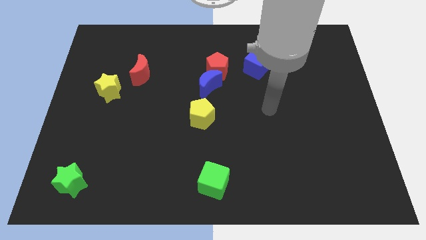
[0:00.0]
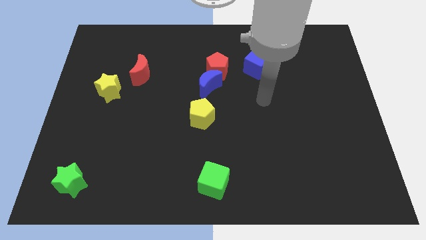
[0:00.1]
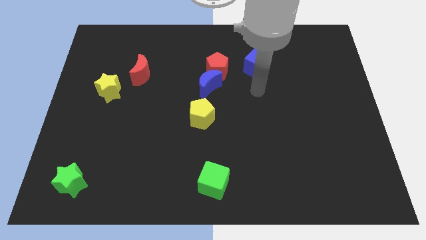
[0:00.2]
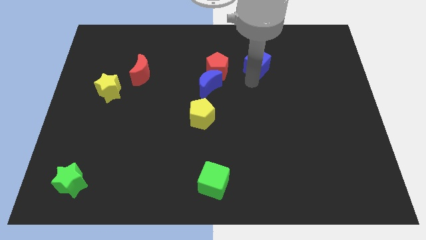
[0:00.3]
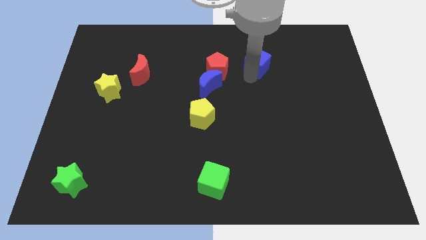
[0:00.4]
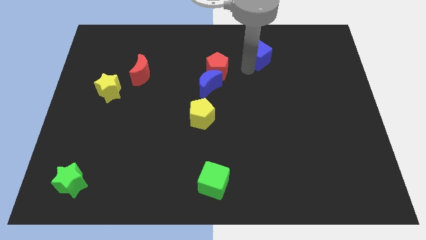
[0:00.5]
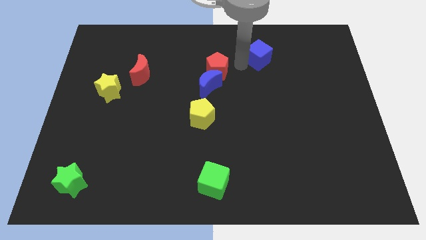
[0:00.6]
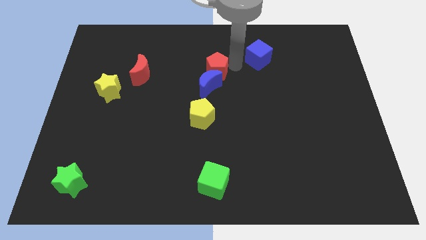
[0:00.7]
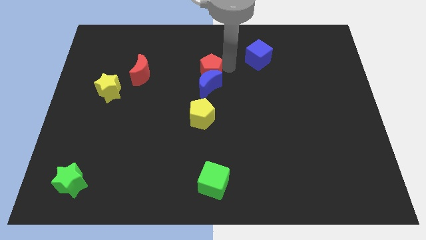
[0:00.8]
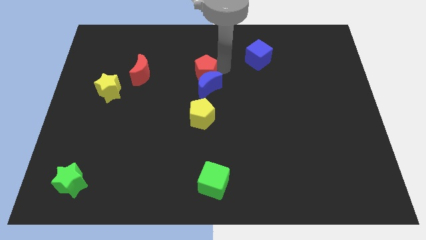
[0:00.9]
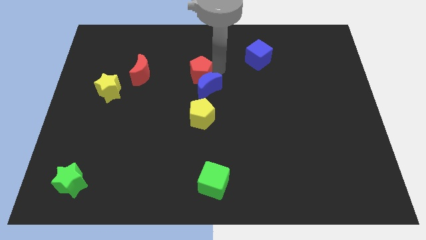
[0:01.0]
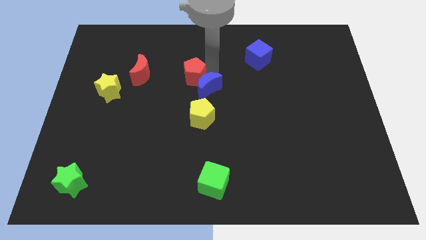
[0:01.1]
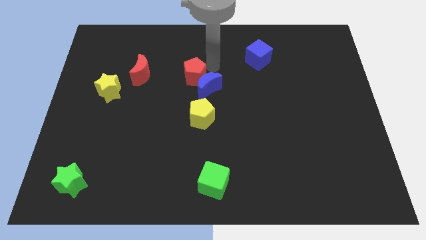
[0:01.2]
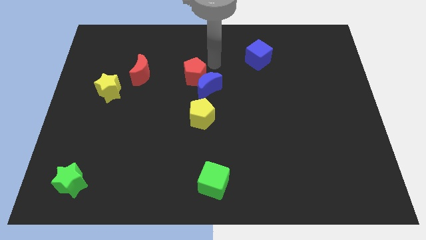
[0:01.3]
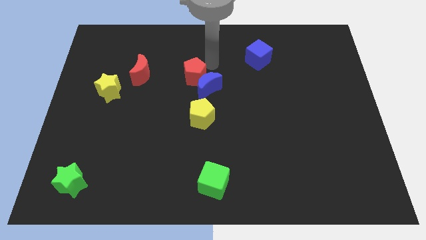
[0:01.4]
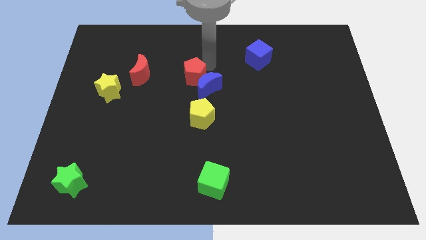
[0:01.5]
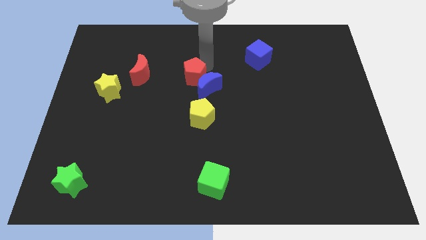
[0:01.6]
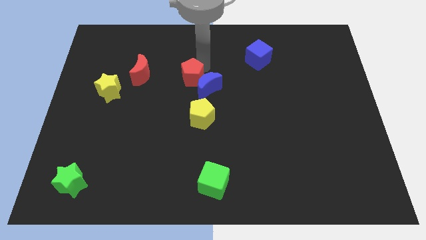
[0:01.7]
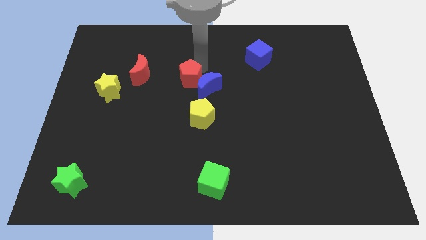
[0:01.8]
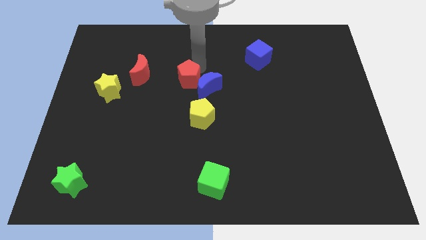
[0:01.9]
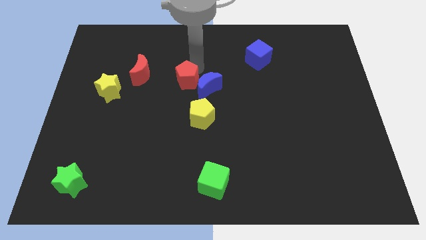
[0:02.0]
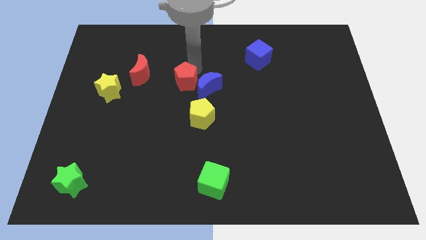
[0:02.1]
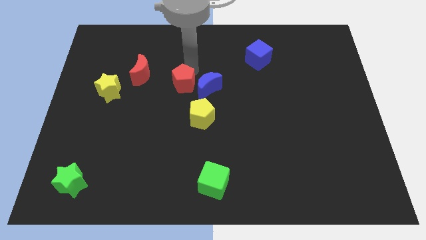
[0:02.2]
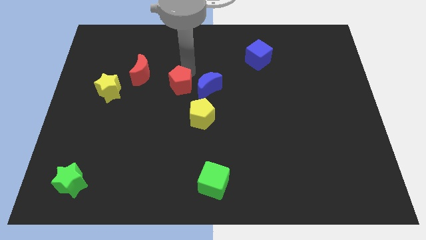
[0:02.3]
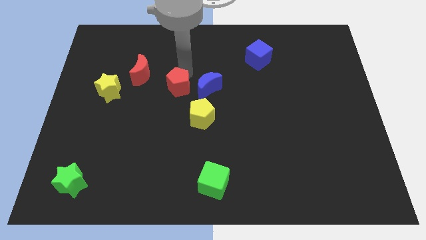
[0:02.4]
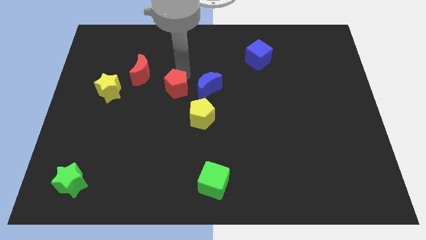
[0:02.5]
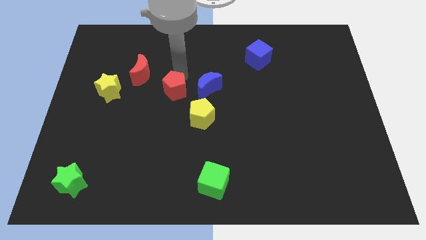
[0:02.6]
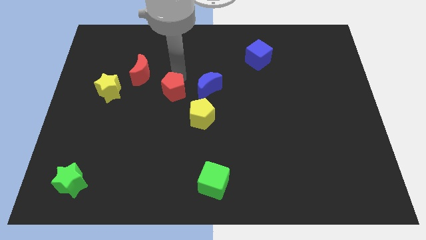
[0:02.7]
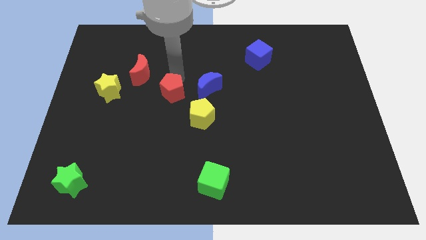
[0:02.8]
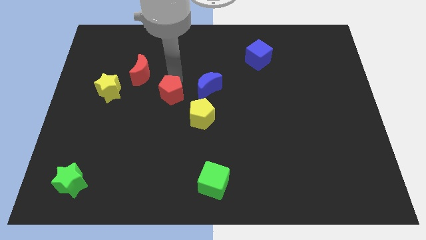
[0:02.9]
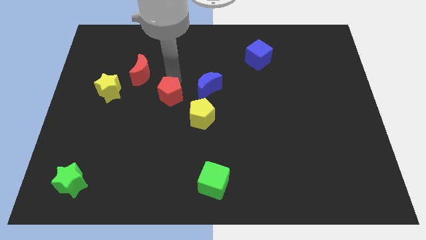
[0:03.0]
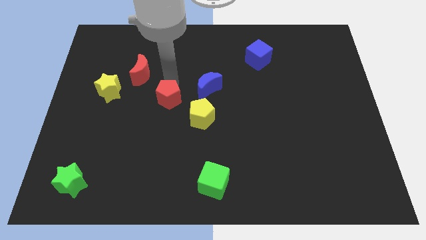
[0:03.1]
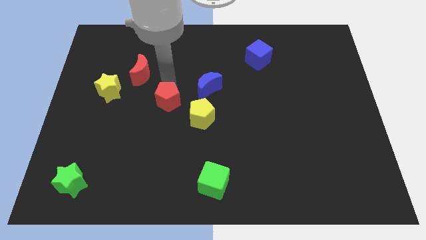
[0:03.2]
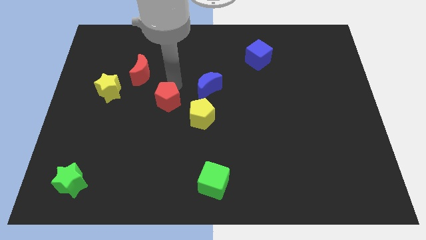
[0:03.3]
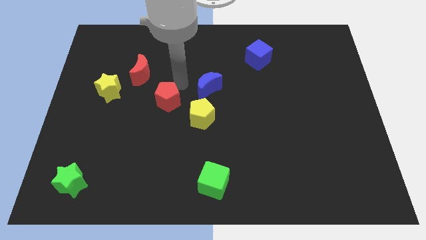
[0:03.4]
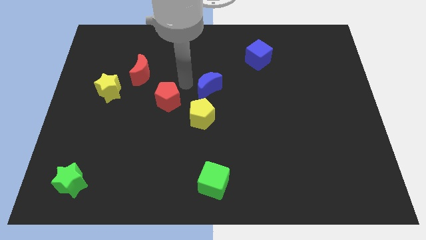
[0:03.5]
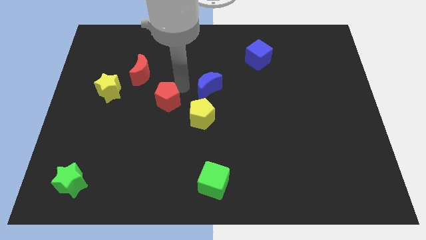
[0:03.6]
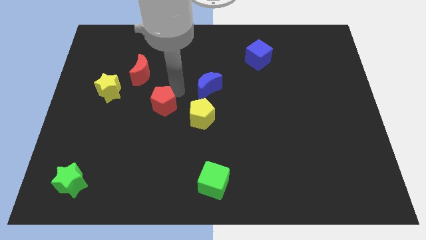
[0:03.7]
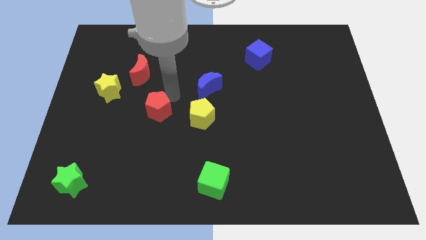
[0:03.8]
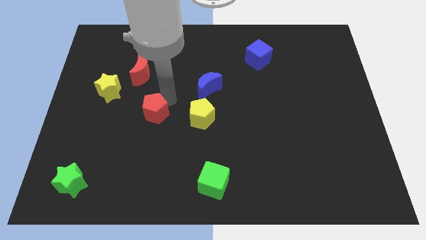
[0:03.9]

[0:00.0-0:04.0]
push the red pentagon down and left diagonally

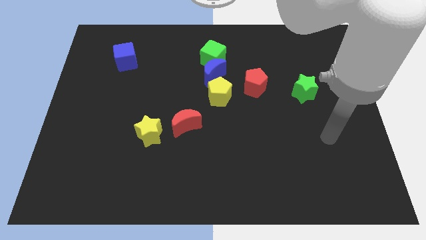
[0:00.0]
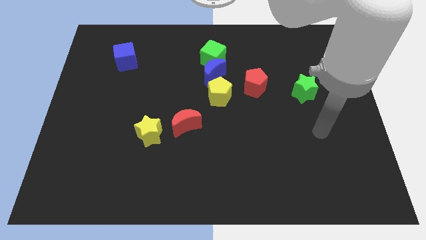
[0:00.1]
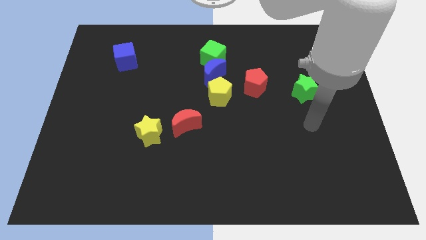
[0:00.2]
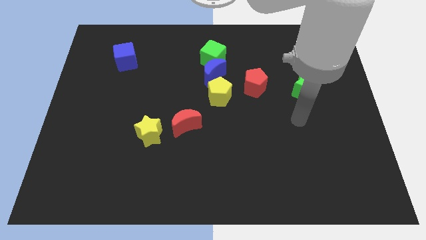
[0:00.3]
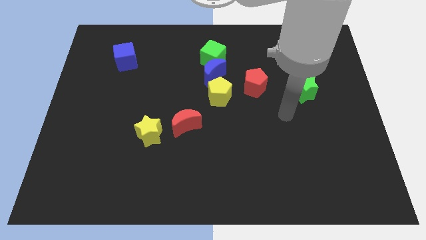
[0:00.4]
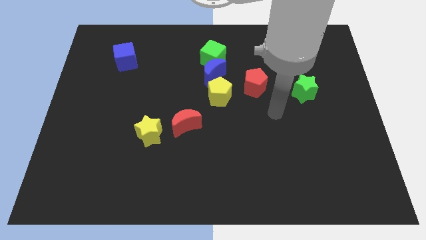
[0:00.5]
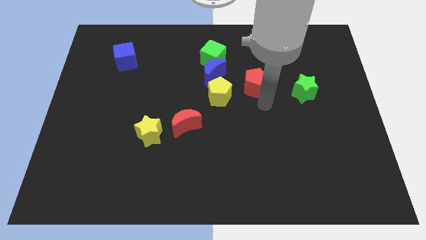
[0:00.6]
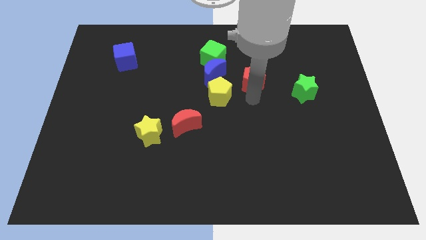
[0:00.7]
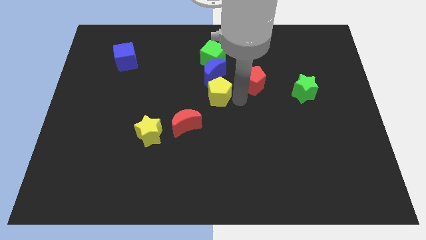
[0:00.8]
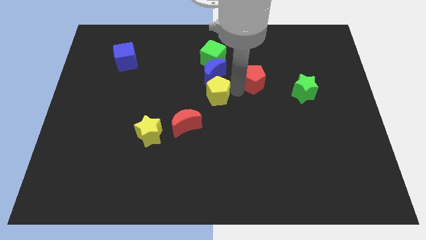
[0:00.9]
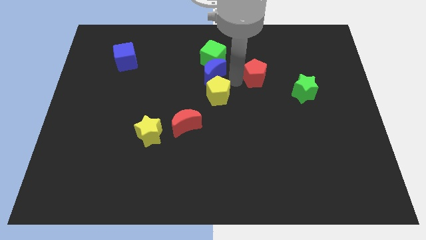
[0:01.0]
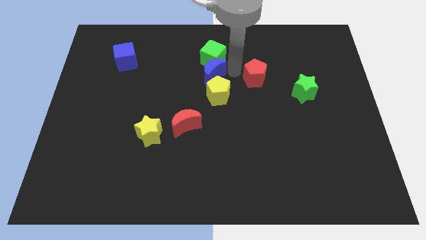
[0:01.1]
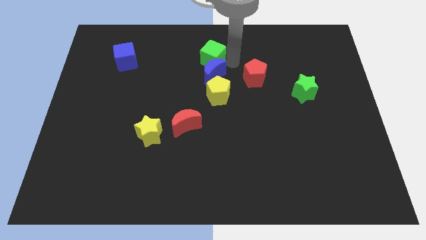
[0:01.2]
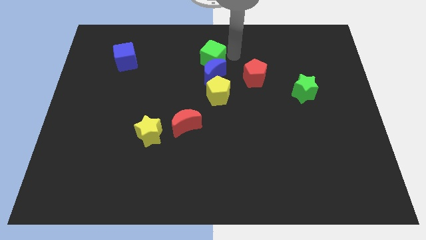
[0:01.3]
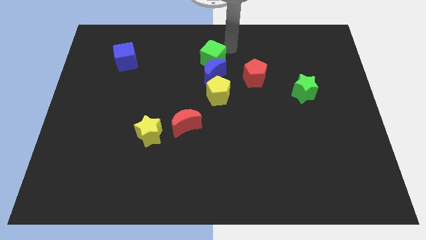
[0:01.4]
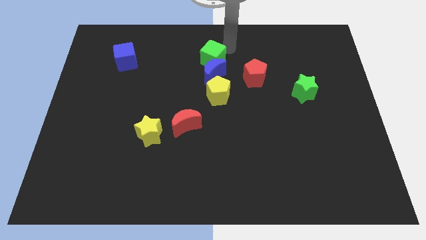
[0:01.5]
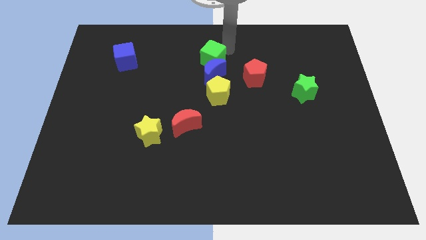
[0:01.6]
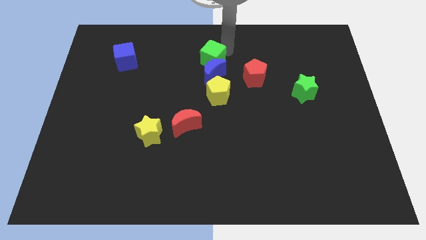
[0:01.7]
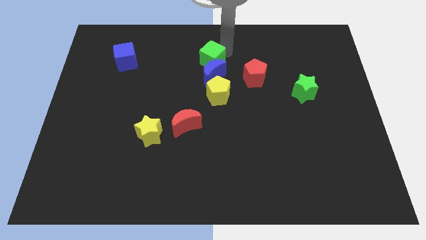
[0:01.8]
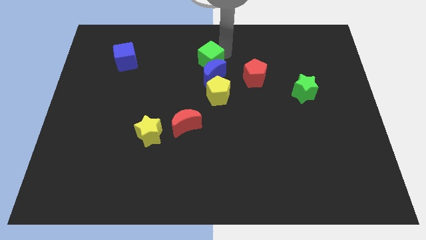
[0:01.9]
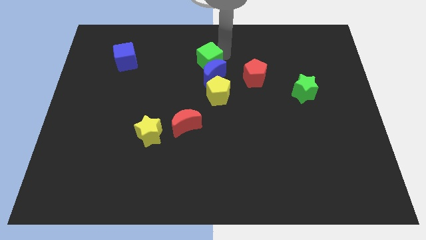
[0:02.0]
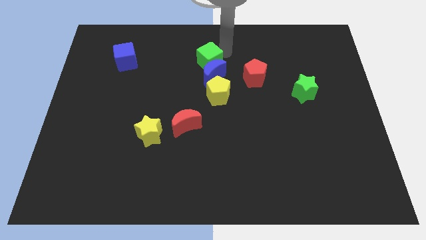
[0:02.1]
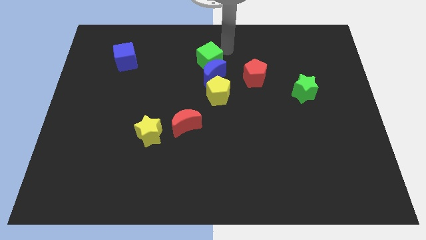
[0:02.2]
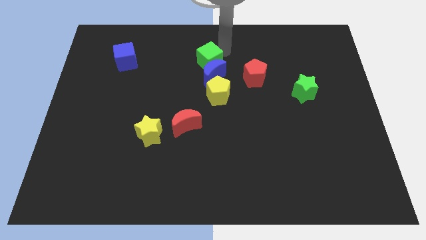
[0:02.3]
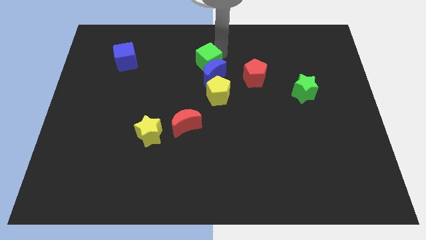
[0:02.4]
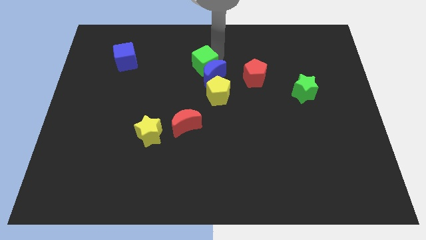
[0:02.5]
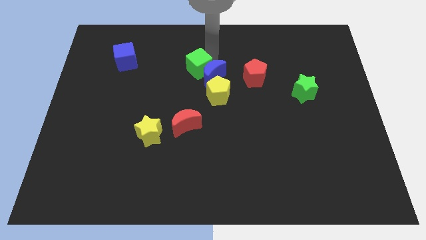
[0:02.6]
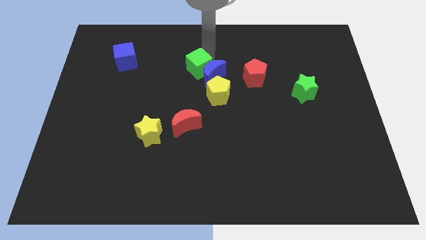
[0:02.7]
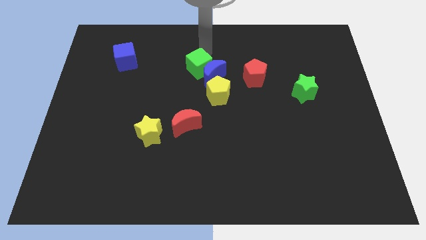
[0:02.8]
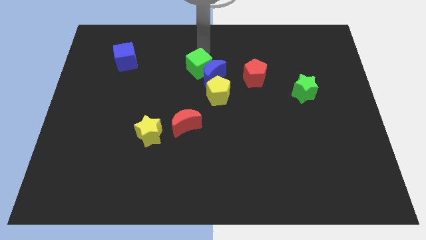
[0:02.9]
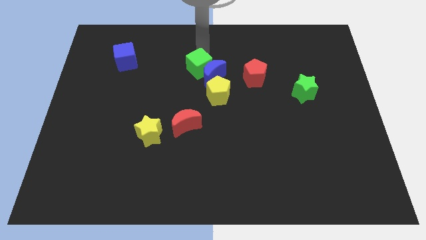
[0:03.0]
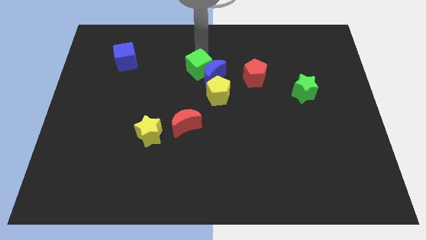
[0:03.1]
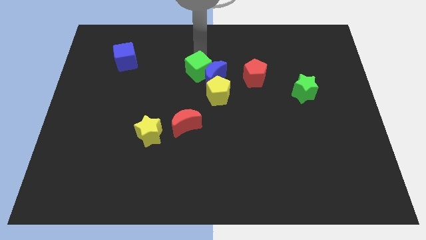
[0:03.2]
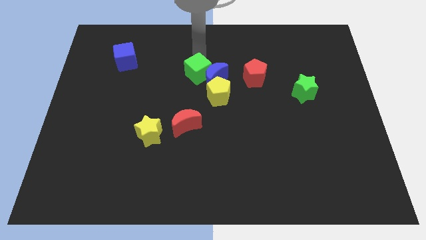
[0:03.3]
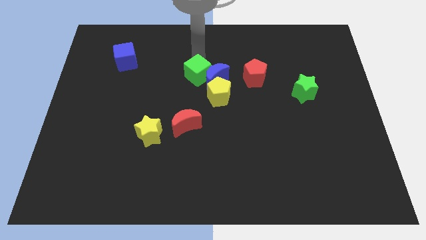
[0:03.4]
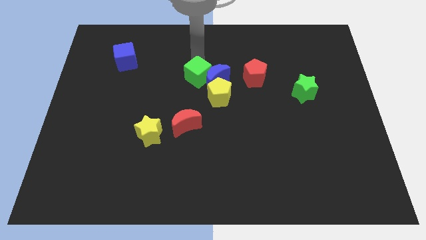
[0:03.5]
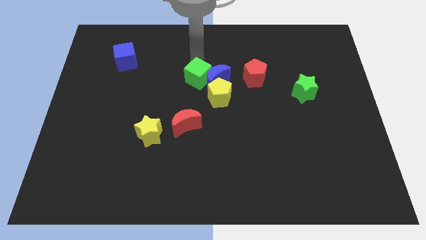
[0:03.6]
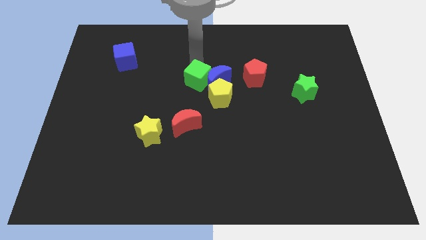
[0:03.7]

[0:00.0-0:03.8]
push the green cube down somewhat

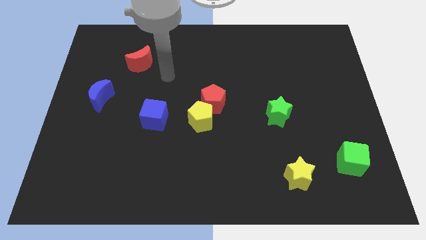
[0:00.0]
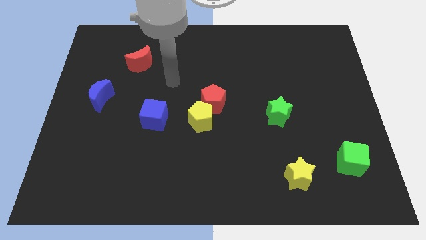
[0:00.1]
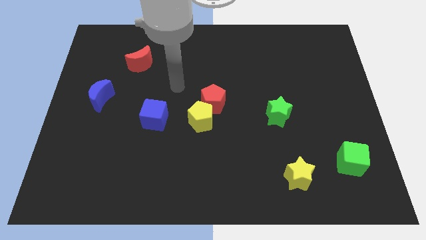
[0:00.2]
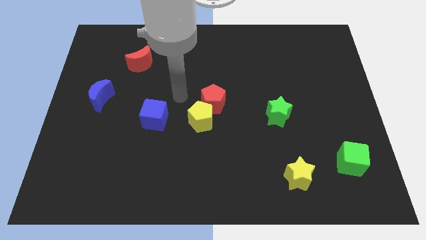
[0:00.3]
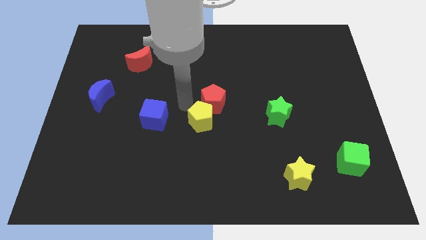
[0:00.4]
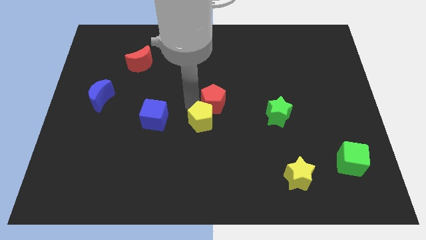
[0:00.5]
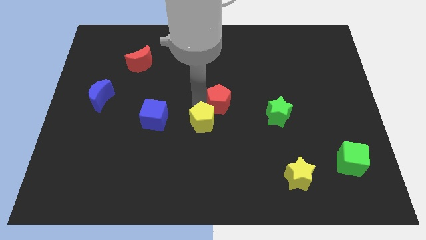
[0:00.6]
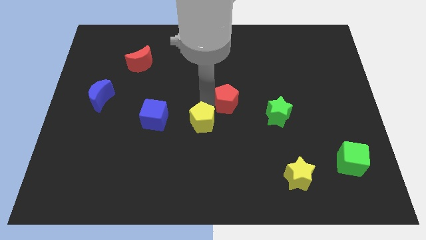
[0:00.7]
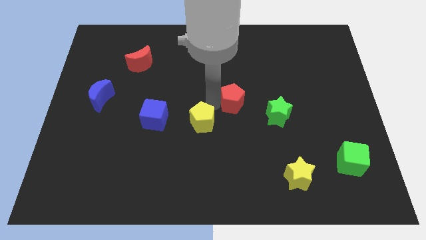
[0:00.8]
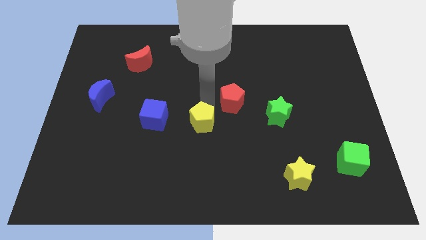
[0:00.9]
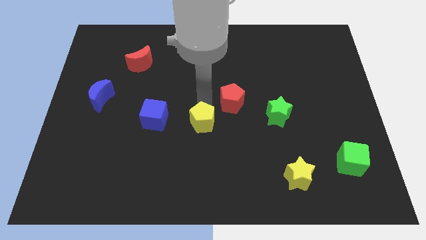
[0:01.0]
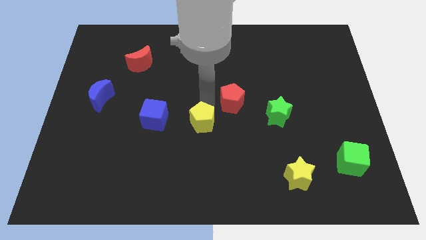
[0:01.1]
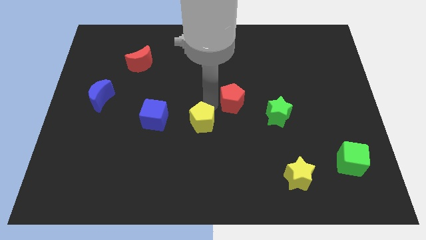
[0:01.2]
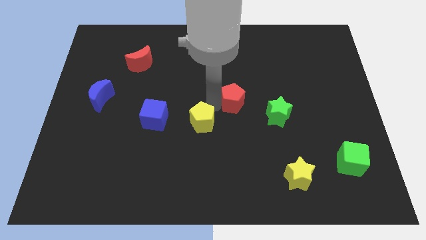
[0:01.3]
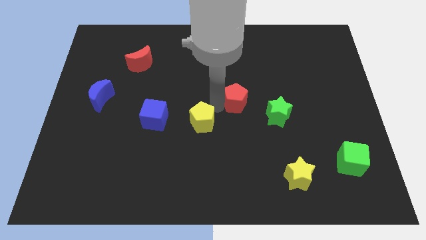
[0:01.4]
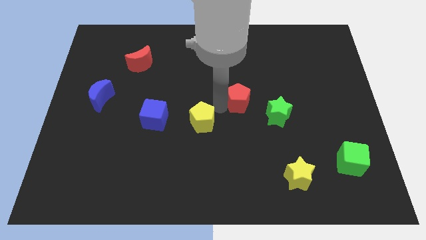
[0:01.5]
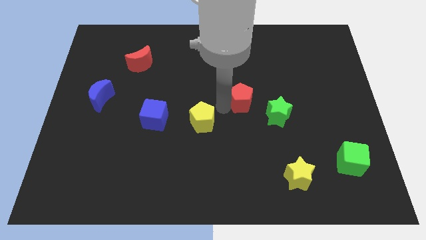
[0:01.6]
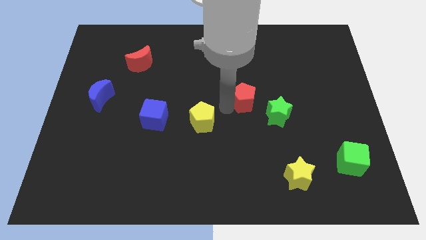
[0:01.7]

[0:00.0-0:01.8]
move the red pentagon a little to the right
